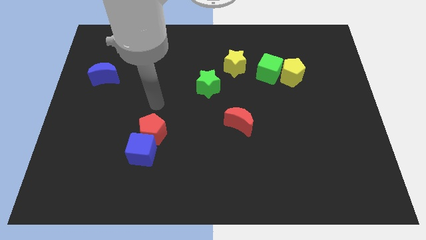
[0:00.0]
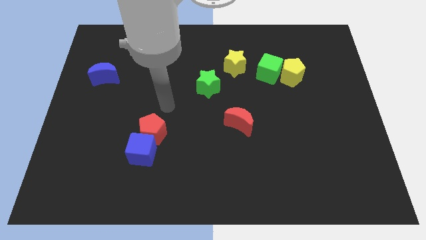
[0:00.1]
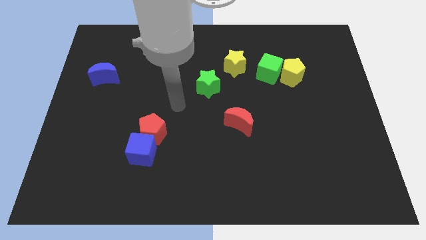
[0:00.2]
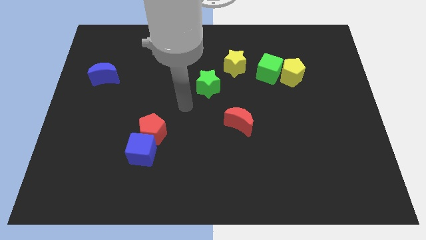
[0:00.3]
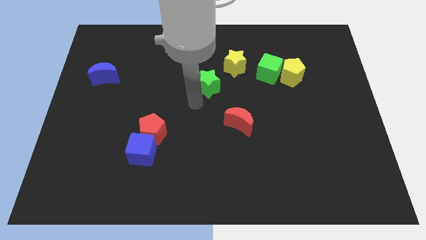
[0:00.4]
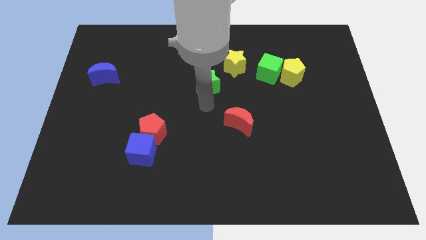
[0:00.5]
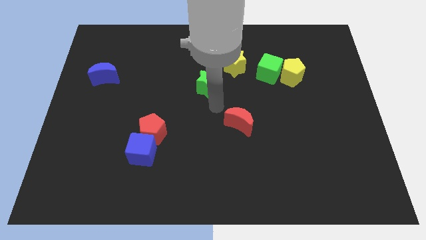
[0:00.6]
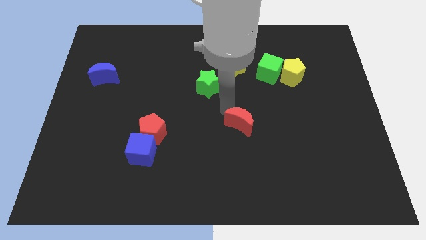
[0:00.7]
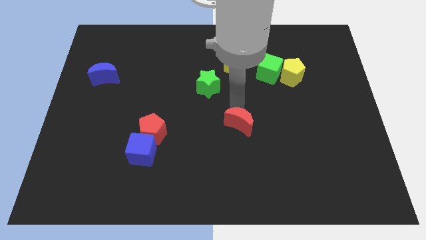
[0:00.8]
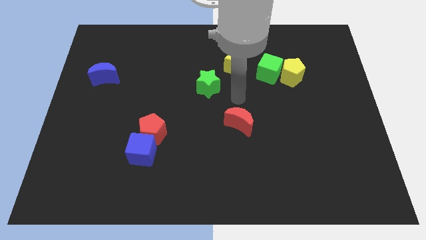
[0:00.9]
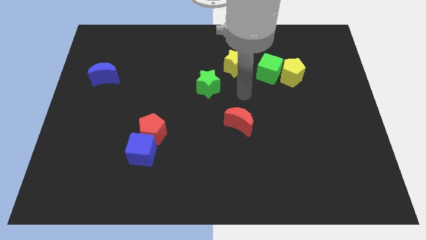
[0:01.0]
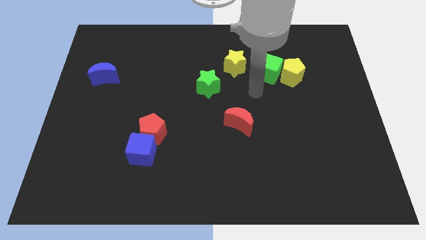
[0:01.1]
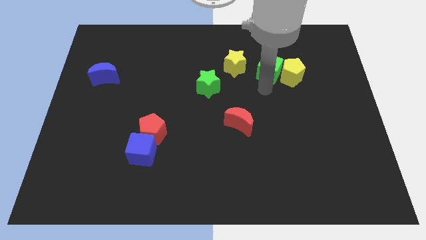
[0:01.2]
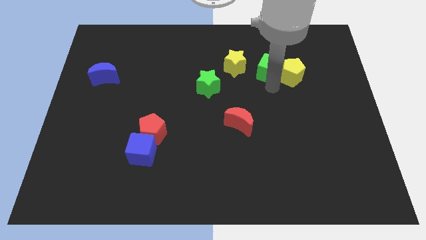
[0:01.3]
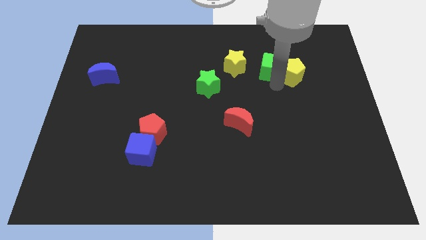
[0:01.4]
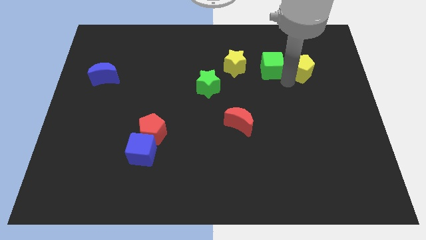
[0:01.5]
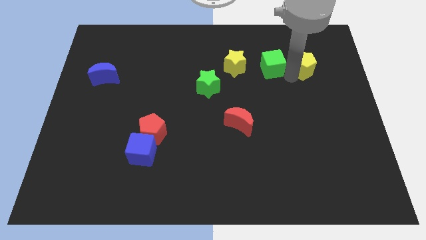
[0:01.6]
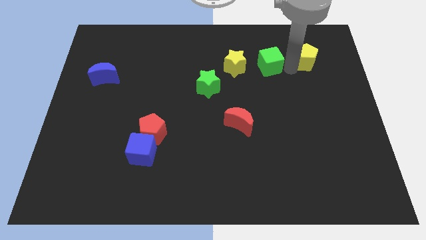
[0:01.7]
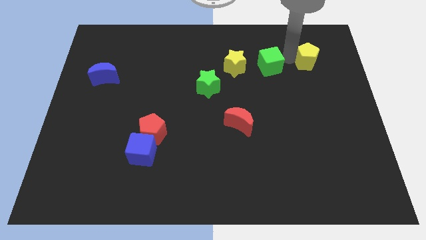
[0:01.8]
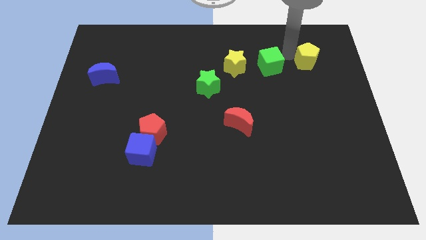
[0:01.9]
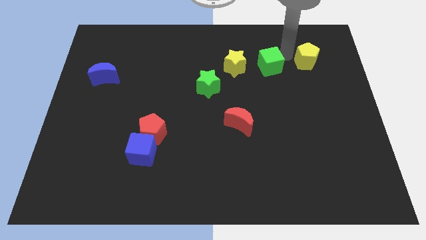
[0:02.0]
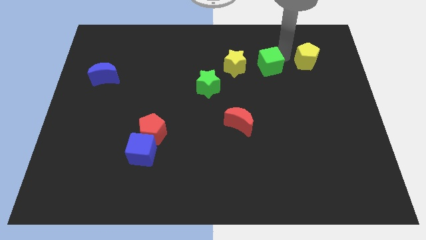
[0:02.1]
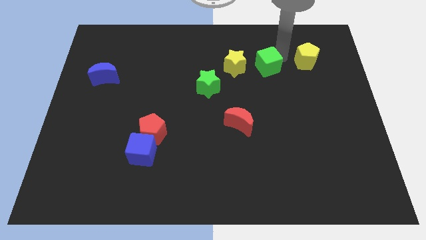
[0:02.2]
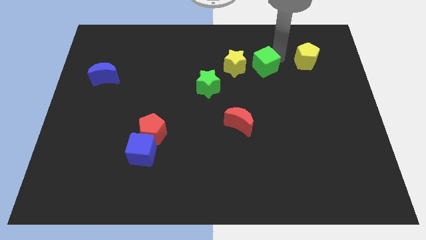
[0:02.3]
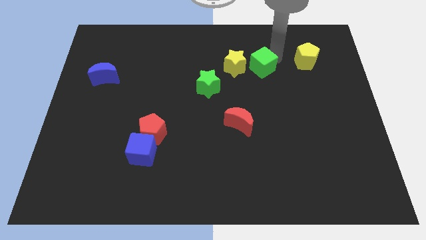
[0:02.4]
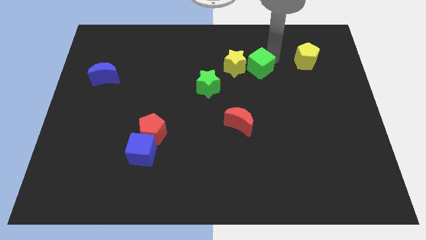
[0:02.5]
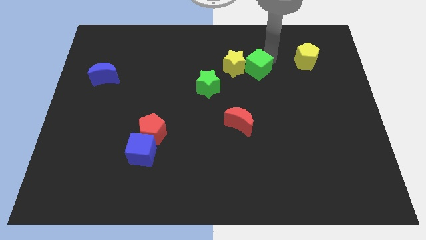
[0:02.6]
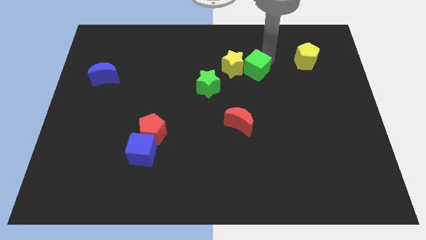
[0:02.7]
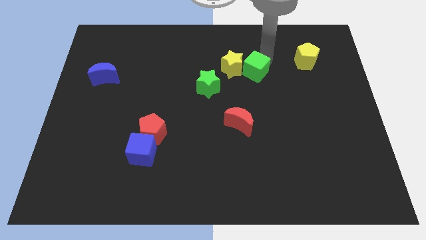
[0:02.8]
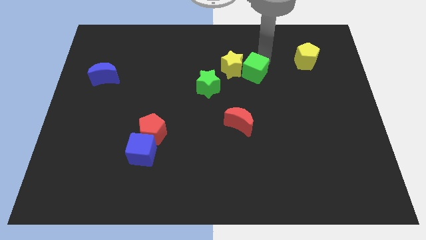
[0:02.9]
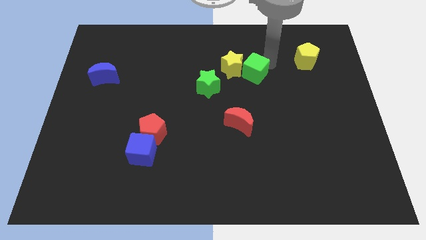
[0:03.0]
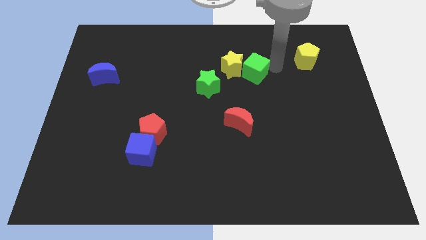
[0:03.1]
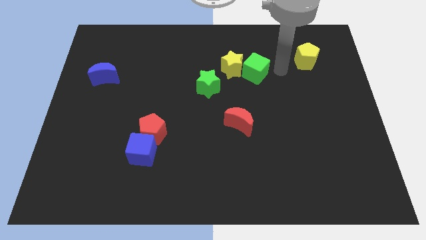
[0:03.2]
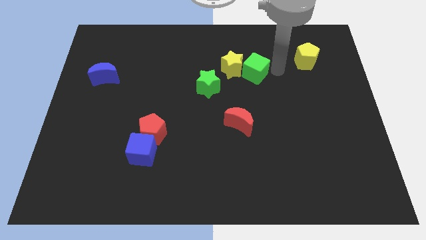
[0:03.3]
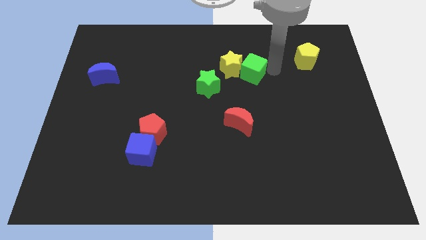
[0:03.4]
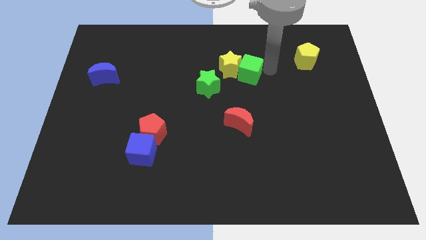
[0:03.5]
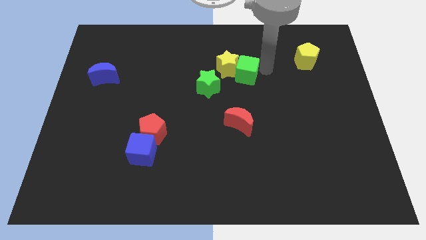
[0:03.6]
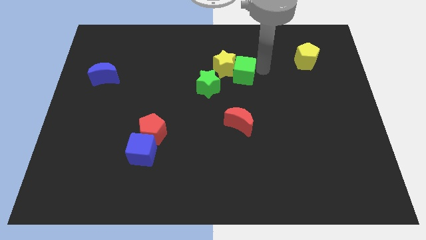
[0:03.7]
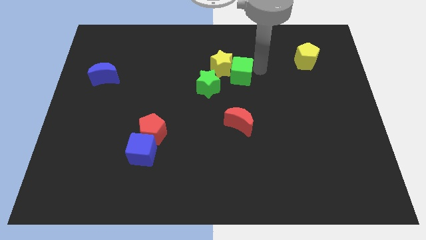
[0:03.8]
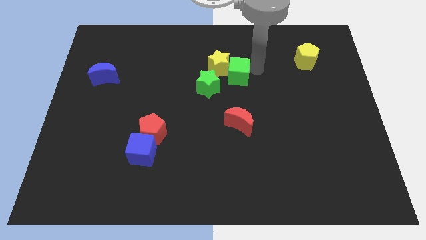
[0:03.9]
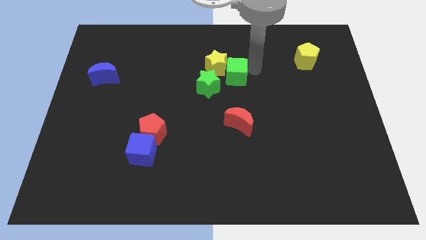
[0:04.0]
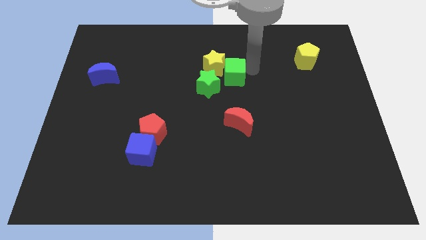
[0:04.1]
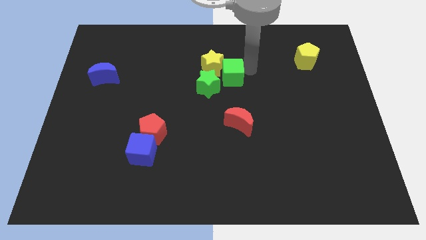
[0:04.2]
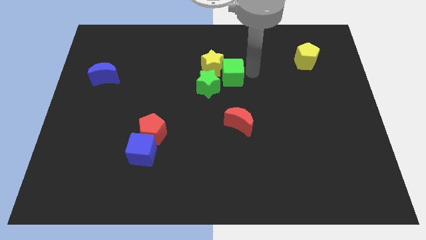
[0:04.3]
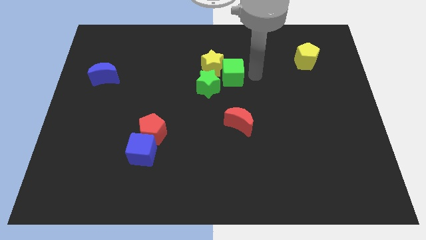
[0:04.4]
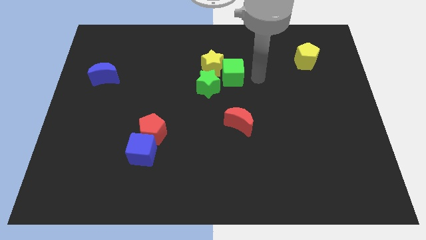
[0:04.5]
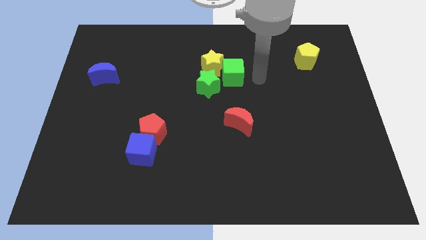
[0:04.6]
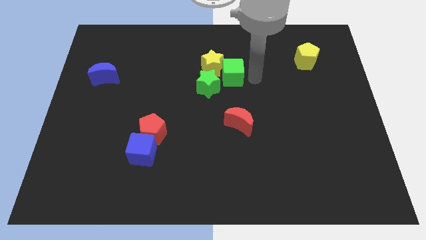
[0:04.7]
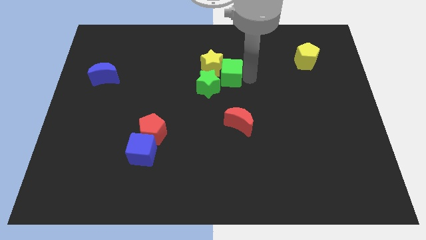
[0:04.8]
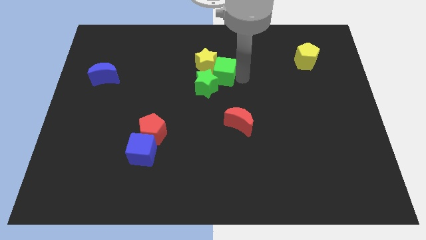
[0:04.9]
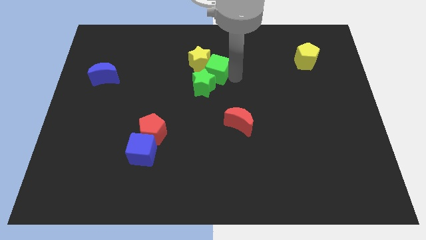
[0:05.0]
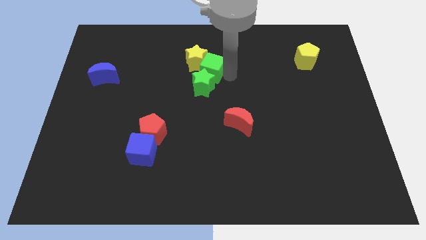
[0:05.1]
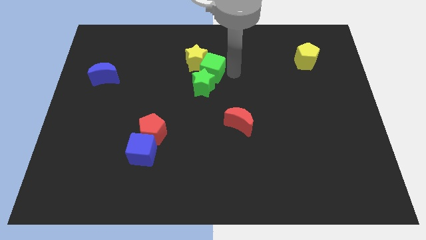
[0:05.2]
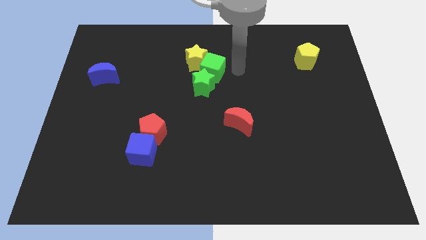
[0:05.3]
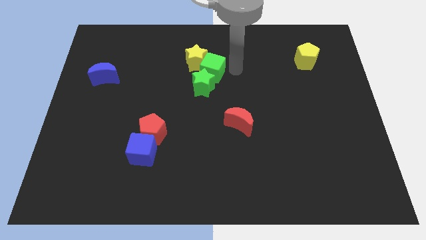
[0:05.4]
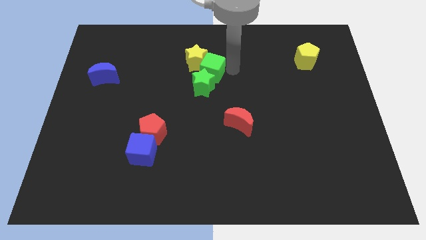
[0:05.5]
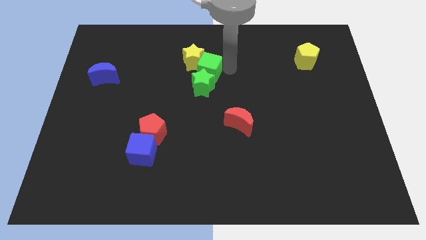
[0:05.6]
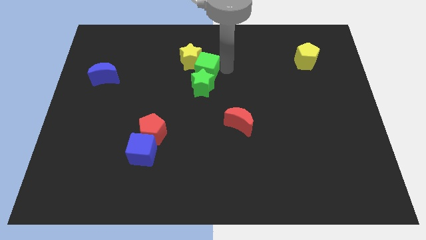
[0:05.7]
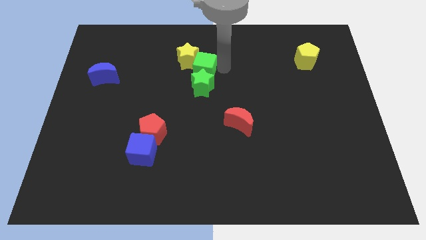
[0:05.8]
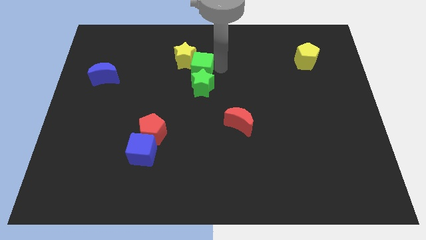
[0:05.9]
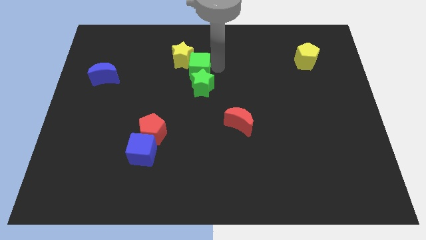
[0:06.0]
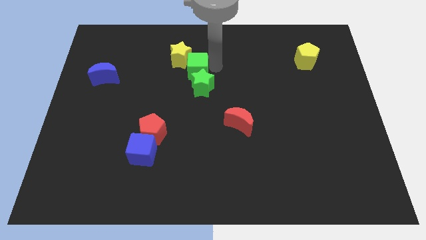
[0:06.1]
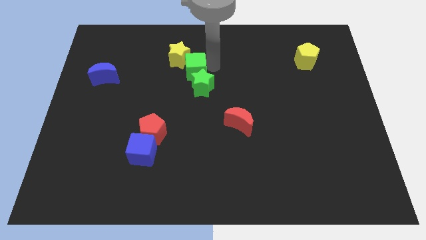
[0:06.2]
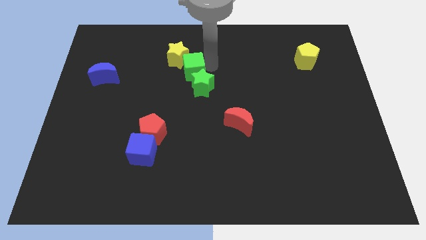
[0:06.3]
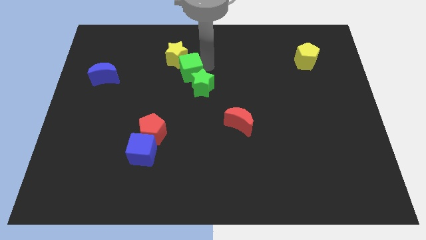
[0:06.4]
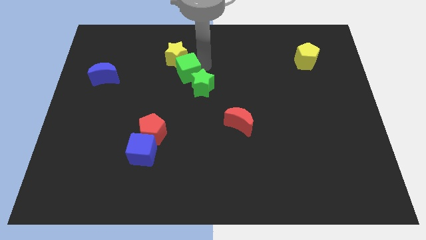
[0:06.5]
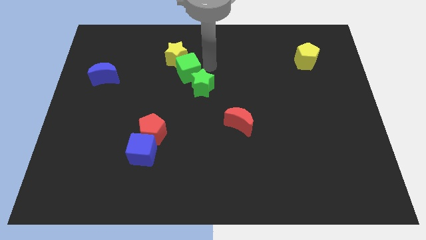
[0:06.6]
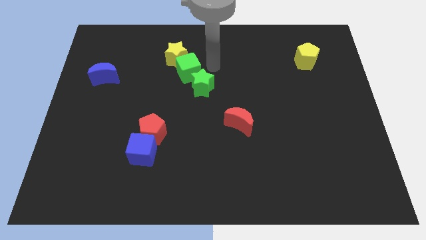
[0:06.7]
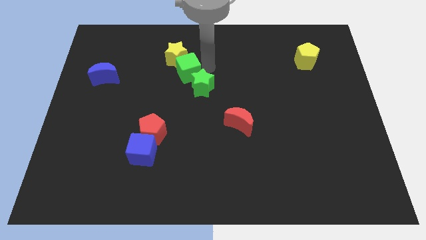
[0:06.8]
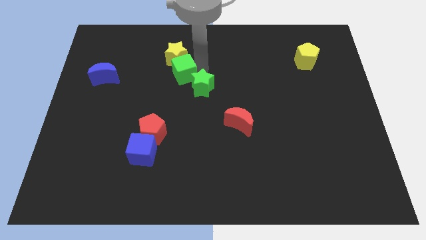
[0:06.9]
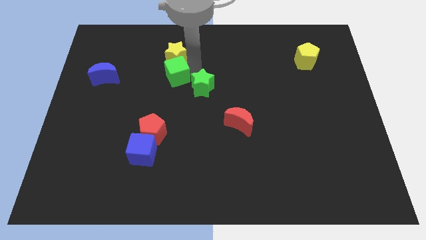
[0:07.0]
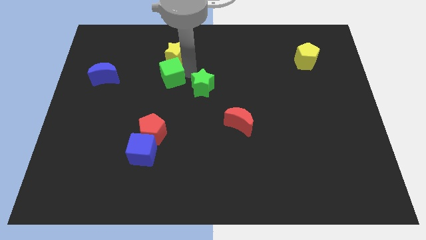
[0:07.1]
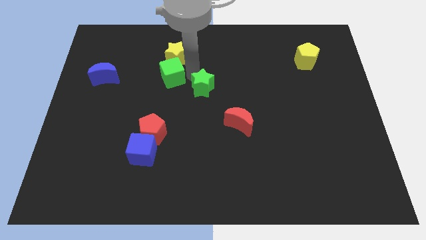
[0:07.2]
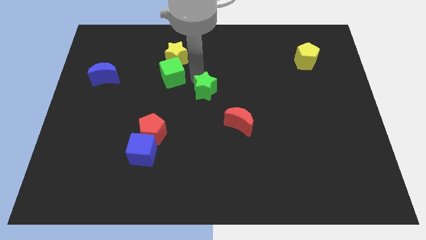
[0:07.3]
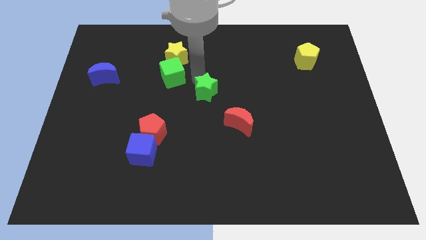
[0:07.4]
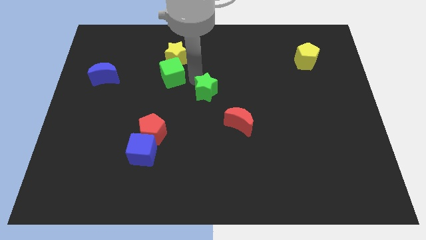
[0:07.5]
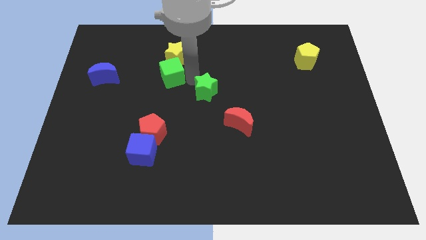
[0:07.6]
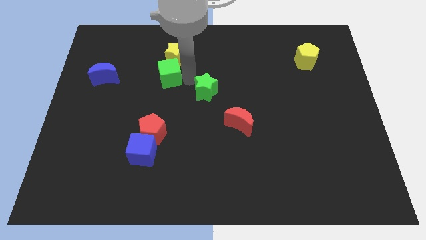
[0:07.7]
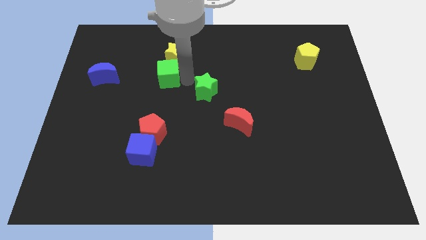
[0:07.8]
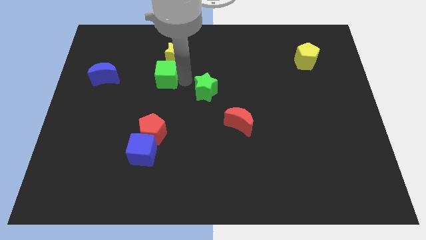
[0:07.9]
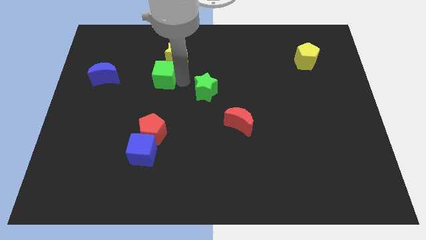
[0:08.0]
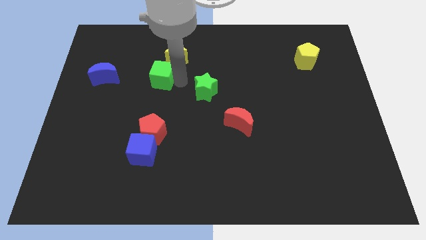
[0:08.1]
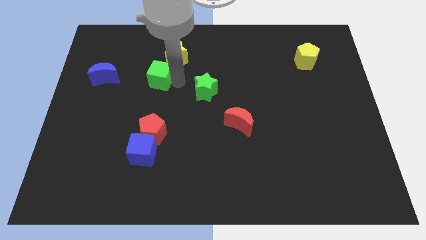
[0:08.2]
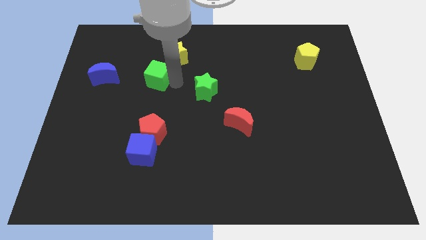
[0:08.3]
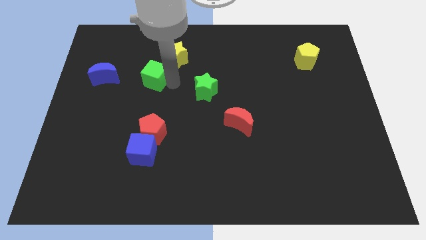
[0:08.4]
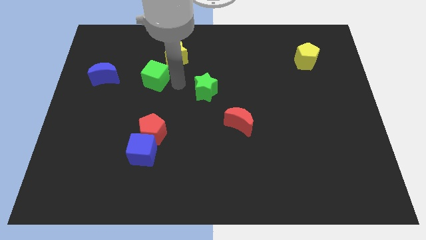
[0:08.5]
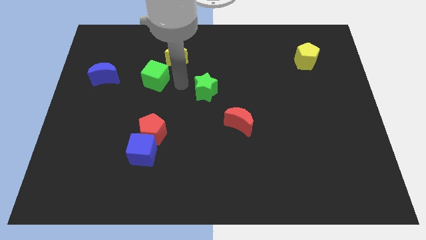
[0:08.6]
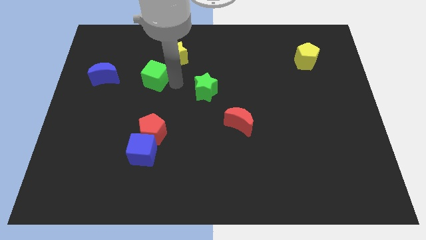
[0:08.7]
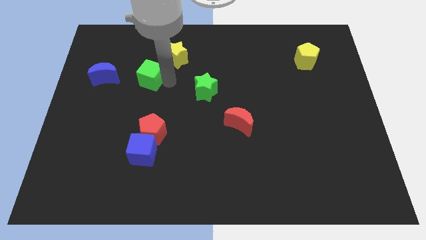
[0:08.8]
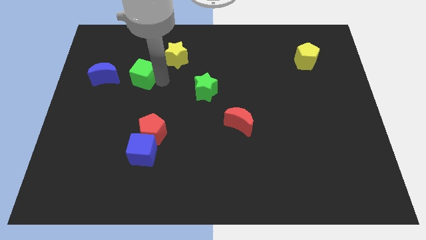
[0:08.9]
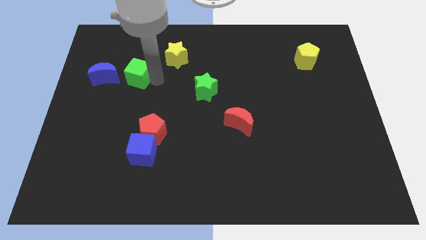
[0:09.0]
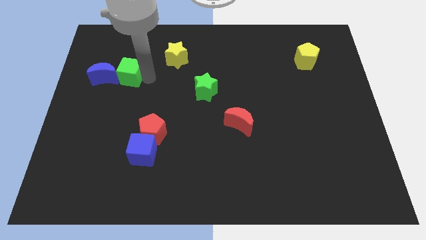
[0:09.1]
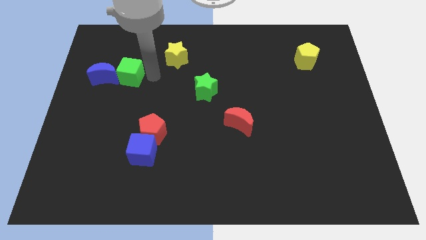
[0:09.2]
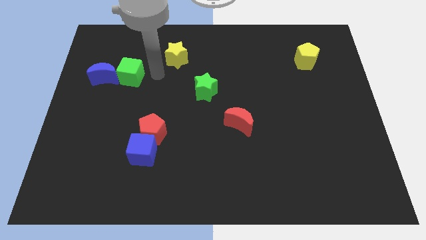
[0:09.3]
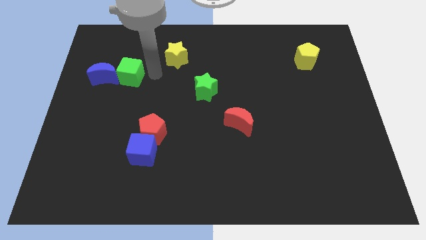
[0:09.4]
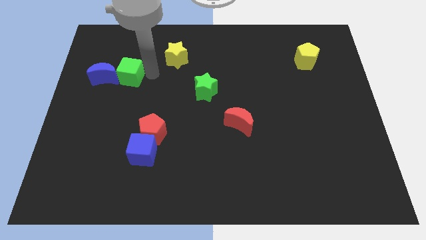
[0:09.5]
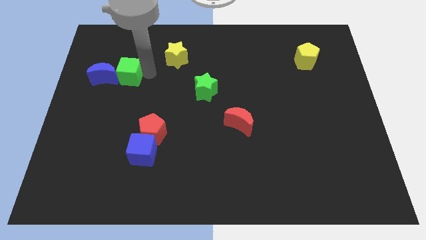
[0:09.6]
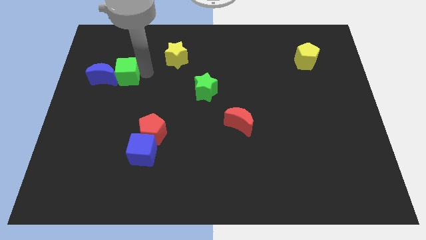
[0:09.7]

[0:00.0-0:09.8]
put the green cube close to the blue moon
